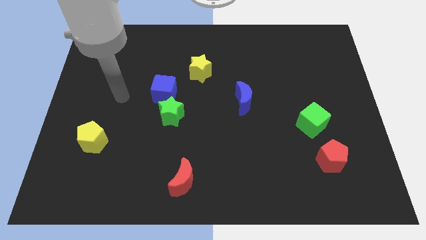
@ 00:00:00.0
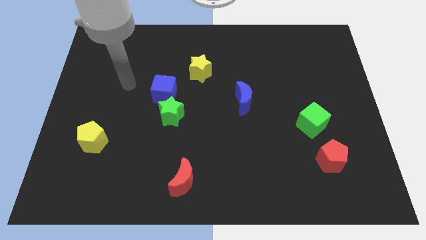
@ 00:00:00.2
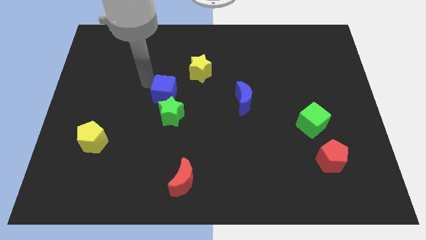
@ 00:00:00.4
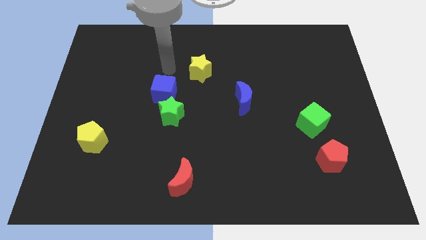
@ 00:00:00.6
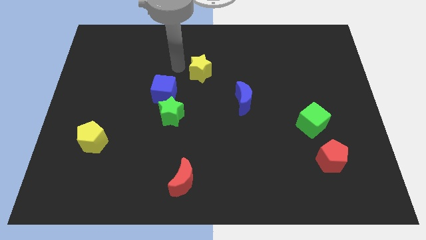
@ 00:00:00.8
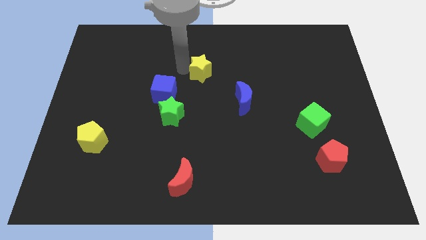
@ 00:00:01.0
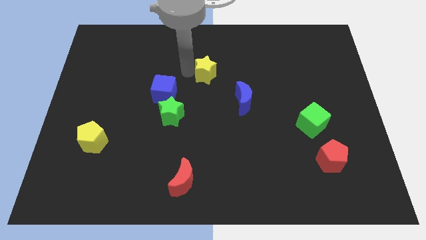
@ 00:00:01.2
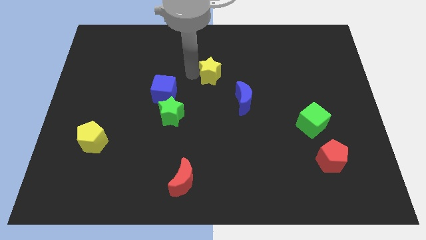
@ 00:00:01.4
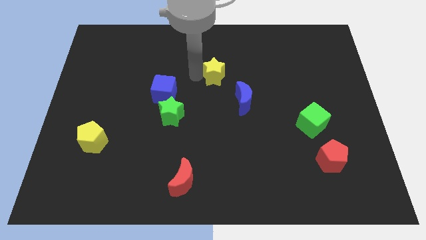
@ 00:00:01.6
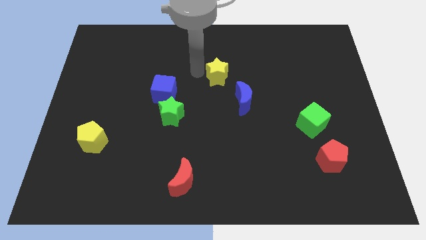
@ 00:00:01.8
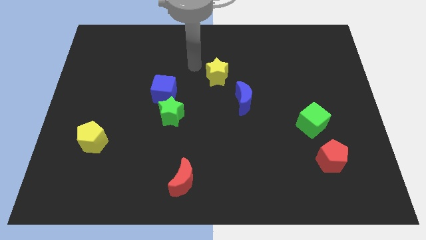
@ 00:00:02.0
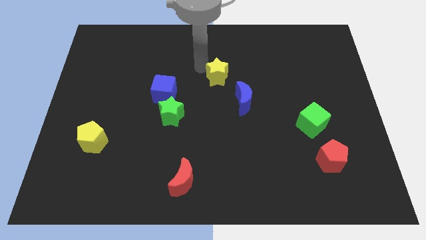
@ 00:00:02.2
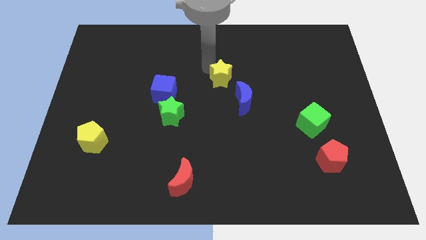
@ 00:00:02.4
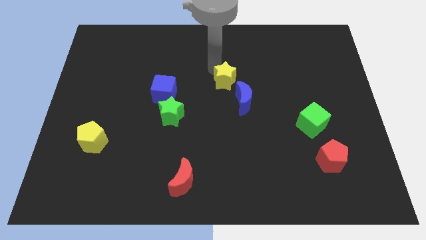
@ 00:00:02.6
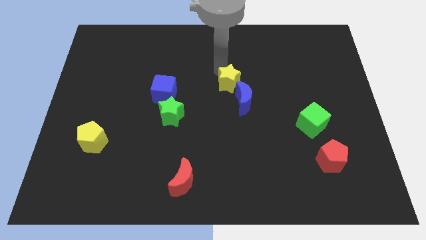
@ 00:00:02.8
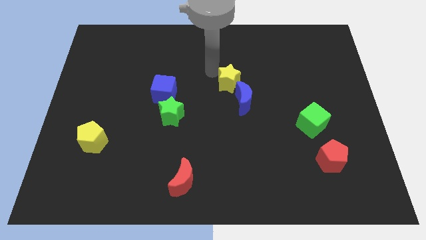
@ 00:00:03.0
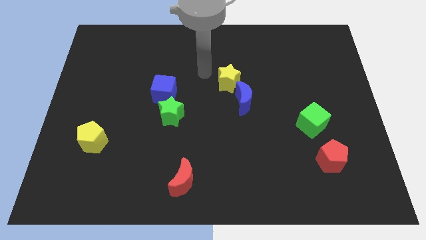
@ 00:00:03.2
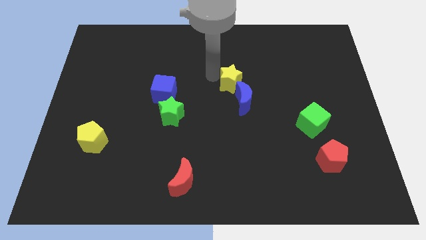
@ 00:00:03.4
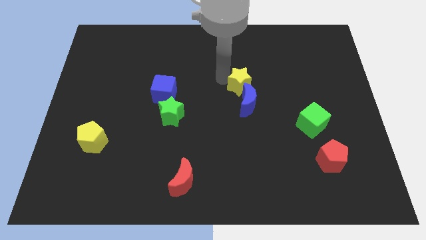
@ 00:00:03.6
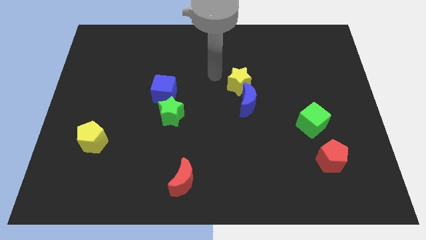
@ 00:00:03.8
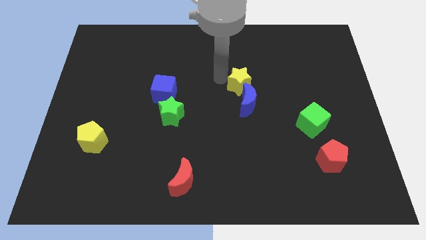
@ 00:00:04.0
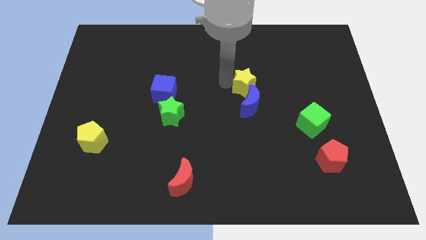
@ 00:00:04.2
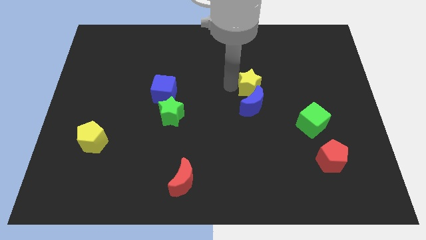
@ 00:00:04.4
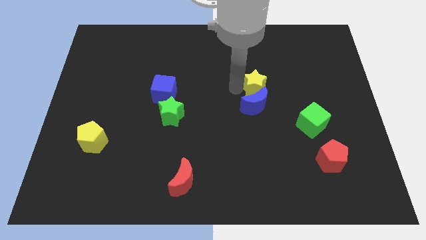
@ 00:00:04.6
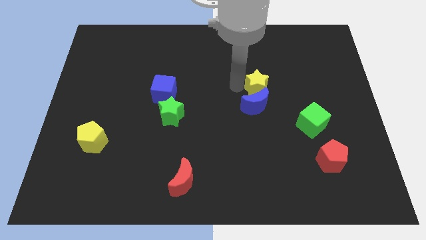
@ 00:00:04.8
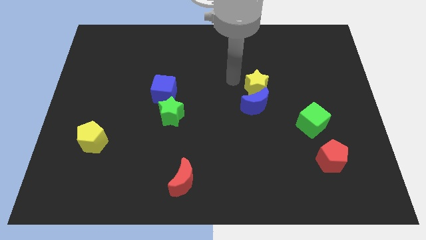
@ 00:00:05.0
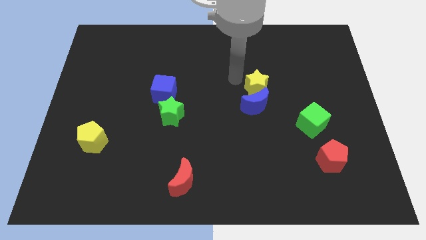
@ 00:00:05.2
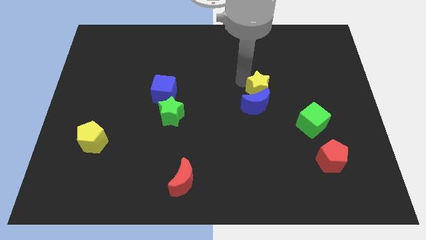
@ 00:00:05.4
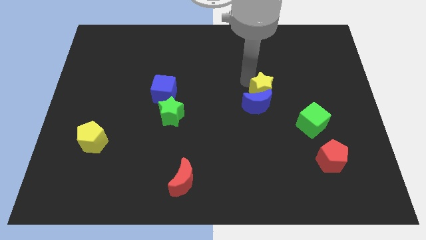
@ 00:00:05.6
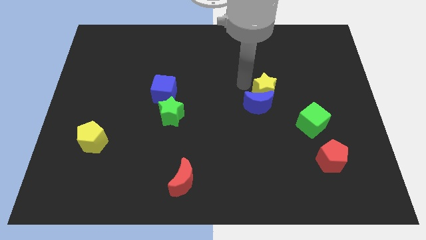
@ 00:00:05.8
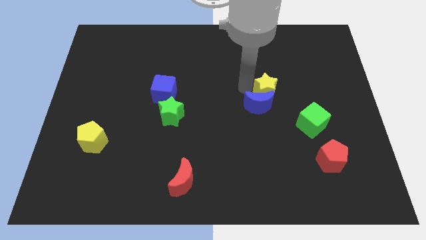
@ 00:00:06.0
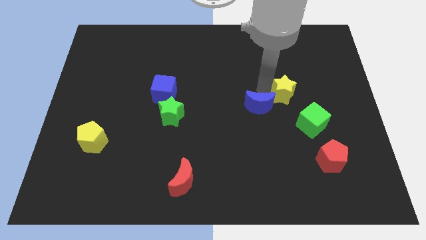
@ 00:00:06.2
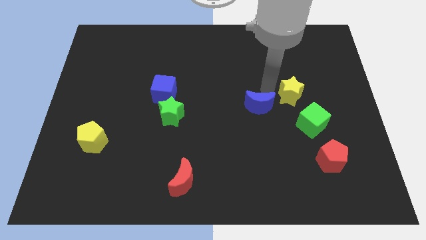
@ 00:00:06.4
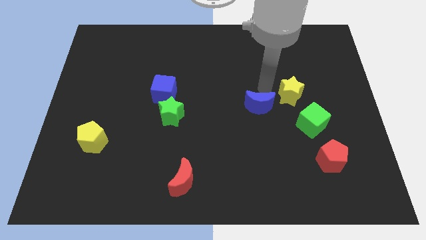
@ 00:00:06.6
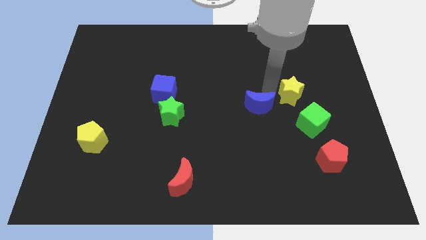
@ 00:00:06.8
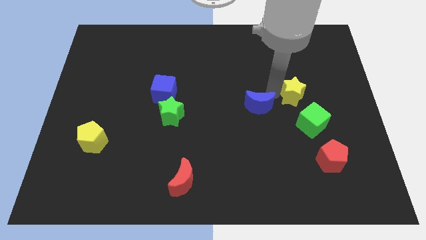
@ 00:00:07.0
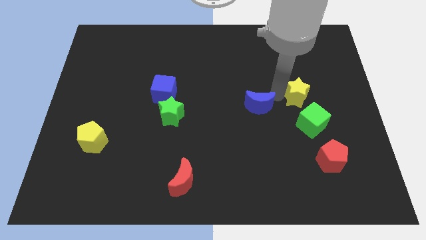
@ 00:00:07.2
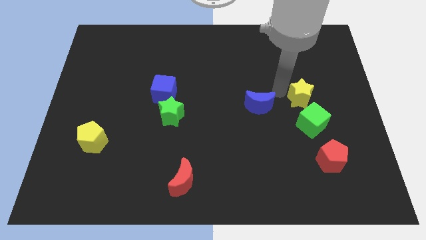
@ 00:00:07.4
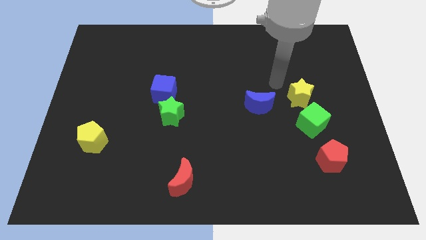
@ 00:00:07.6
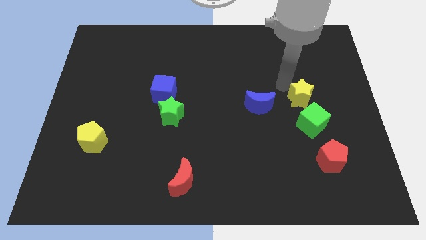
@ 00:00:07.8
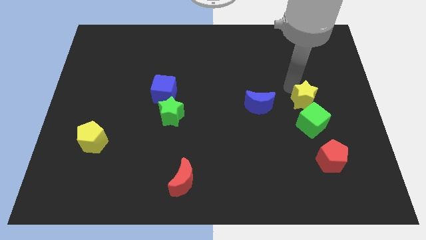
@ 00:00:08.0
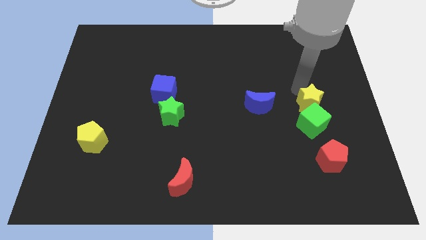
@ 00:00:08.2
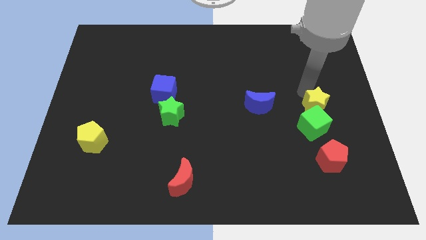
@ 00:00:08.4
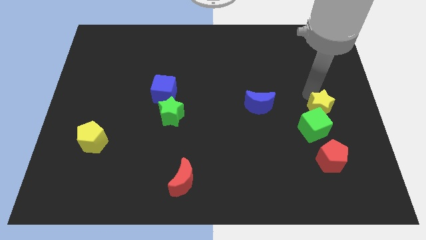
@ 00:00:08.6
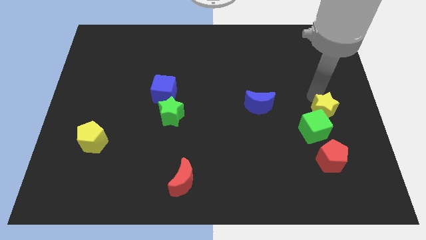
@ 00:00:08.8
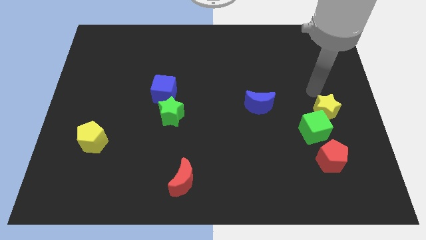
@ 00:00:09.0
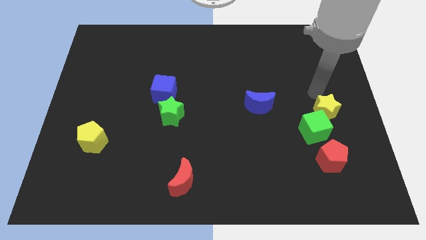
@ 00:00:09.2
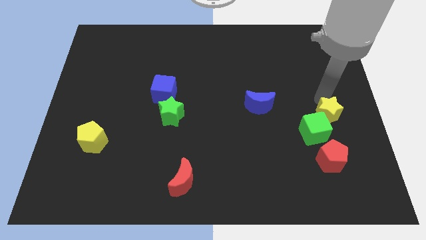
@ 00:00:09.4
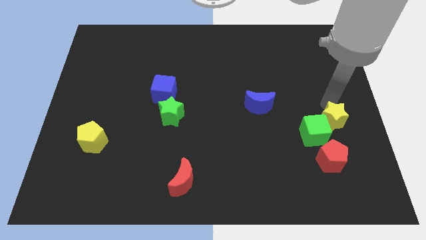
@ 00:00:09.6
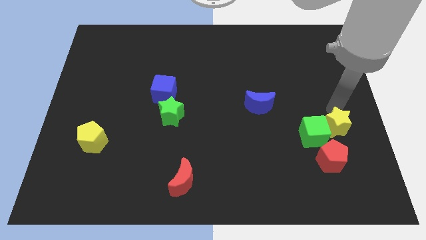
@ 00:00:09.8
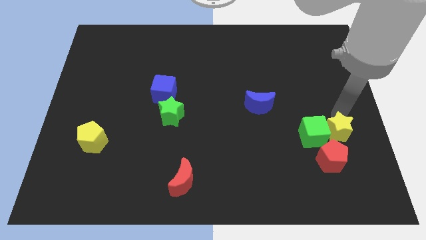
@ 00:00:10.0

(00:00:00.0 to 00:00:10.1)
put the yellow star to the bottom right of the green cube

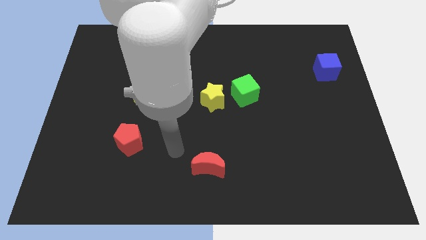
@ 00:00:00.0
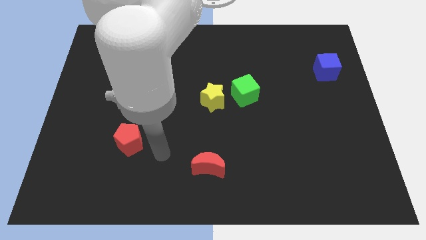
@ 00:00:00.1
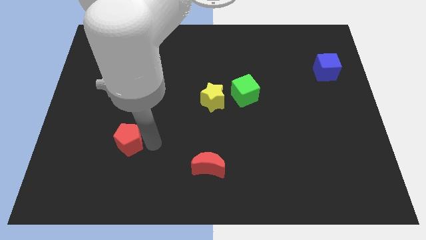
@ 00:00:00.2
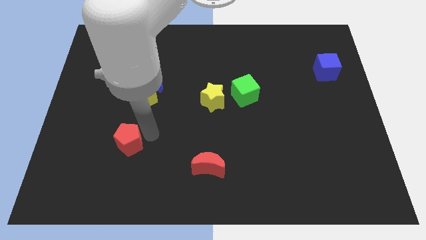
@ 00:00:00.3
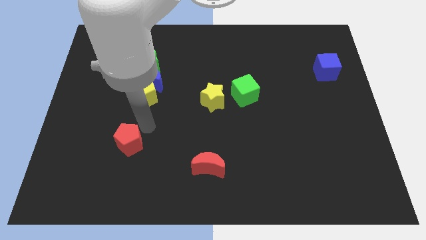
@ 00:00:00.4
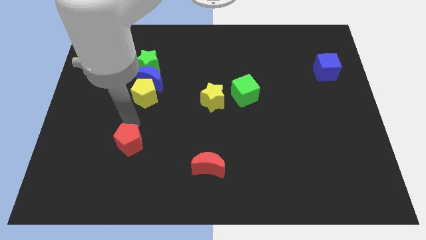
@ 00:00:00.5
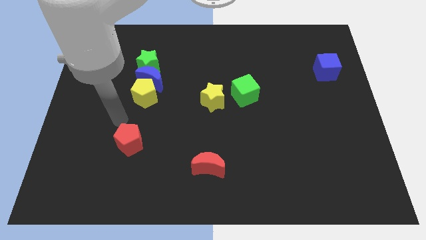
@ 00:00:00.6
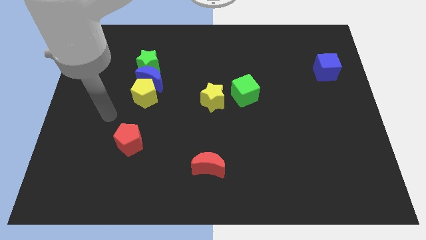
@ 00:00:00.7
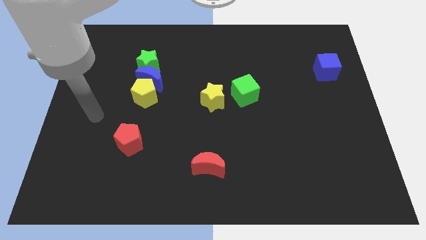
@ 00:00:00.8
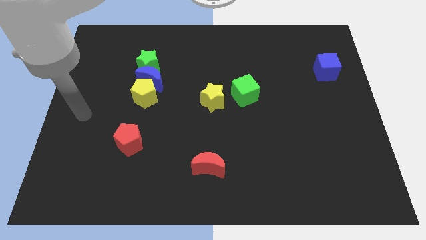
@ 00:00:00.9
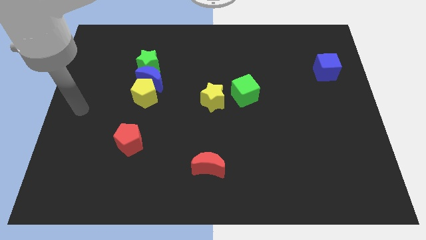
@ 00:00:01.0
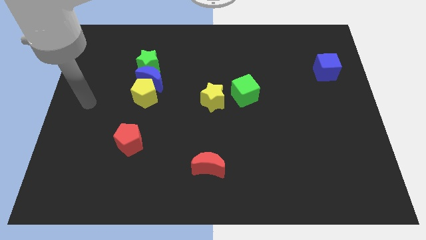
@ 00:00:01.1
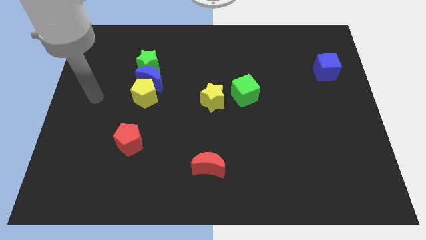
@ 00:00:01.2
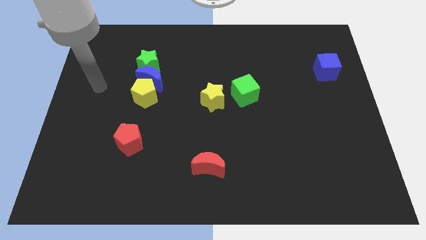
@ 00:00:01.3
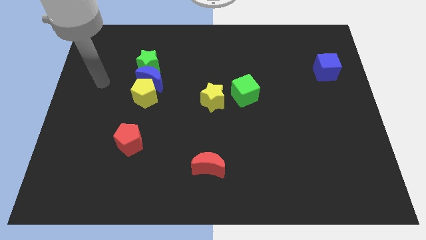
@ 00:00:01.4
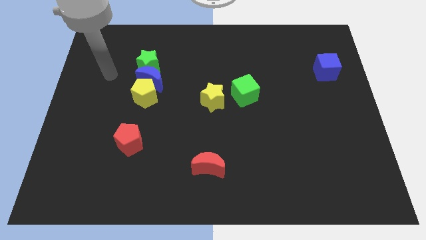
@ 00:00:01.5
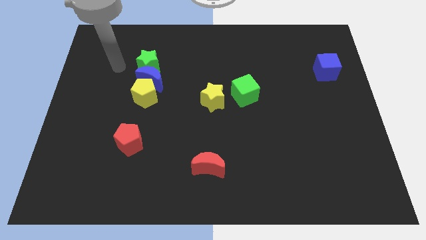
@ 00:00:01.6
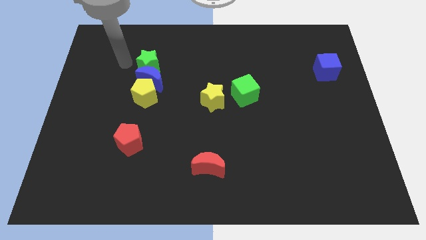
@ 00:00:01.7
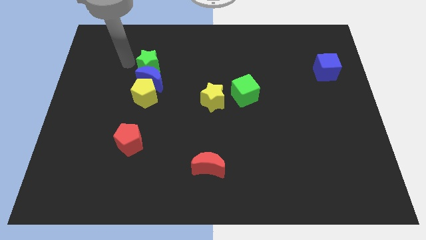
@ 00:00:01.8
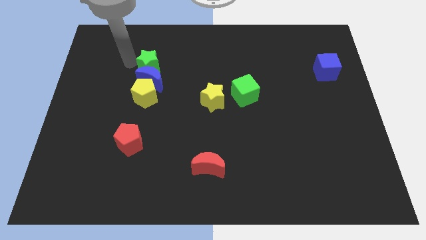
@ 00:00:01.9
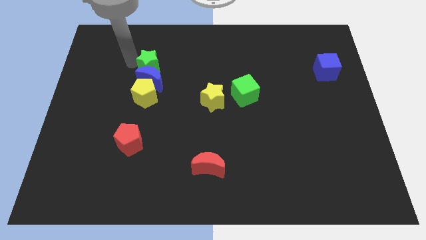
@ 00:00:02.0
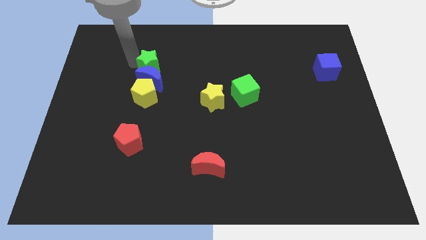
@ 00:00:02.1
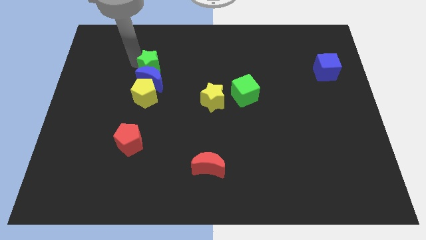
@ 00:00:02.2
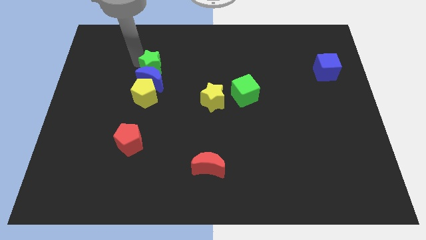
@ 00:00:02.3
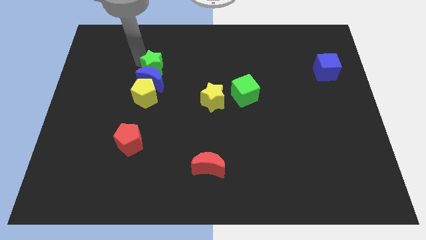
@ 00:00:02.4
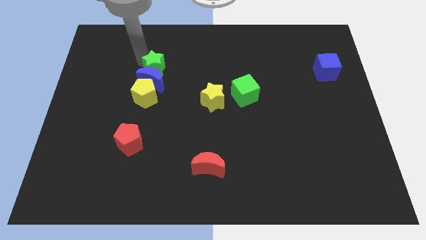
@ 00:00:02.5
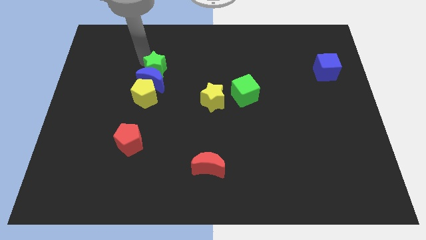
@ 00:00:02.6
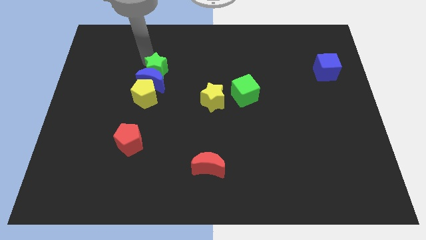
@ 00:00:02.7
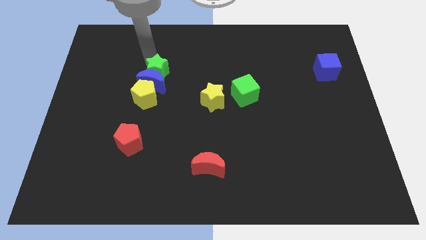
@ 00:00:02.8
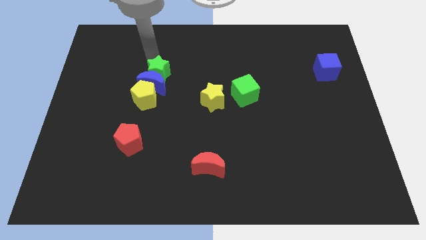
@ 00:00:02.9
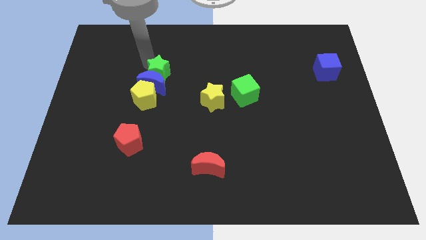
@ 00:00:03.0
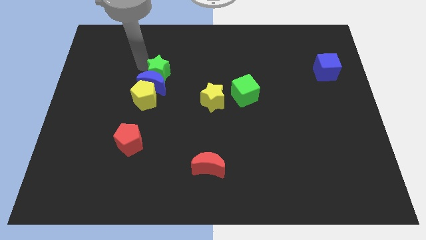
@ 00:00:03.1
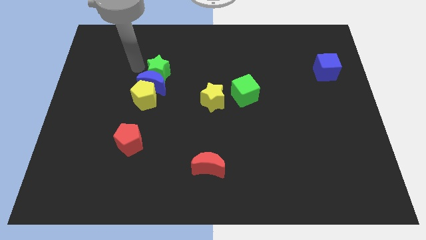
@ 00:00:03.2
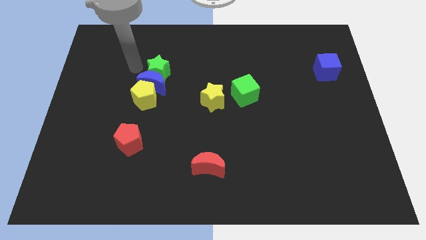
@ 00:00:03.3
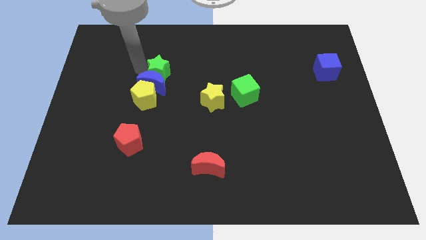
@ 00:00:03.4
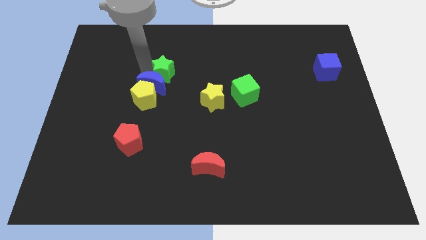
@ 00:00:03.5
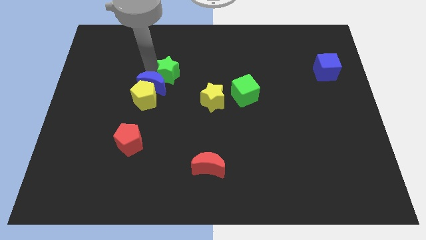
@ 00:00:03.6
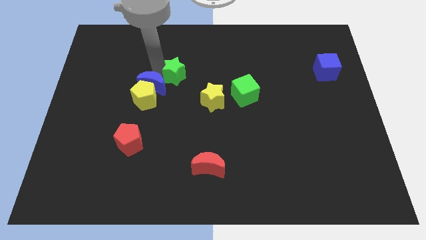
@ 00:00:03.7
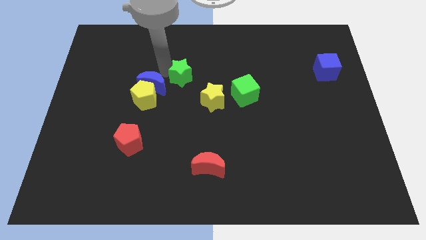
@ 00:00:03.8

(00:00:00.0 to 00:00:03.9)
slide the green star to the top left side of the yellow star
